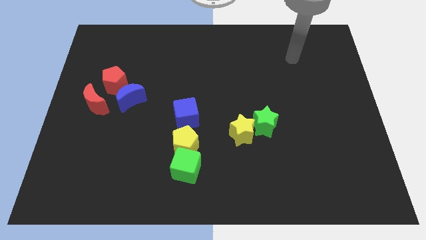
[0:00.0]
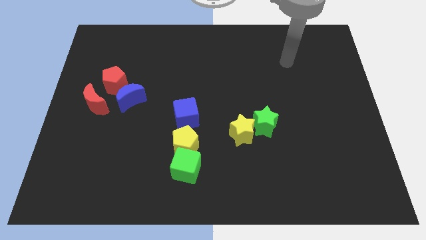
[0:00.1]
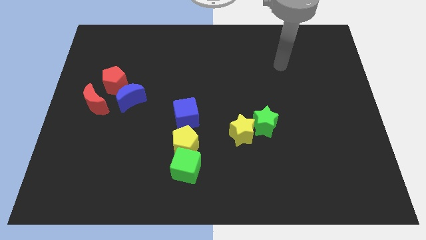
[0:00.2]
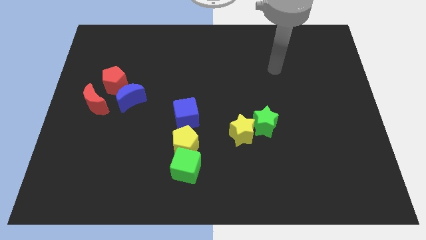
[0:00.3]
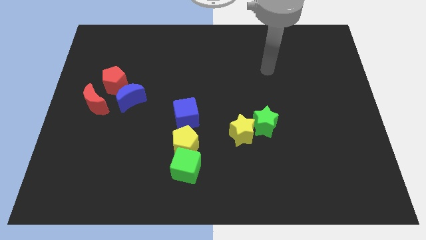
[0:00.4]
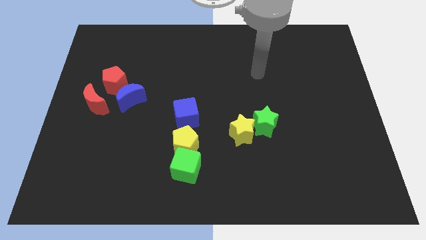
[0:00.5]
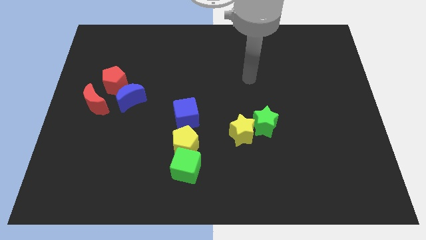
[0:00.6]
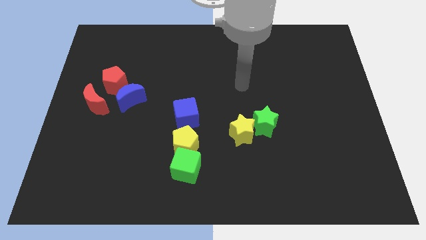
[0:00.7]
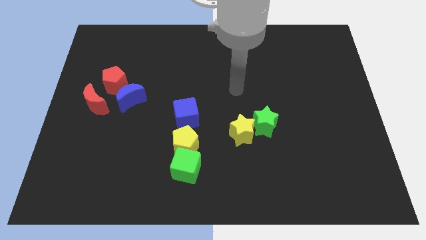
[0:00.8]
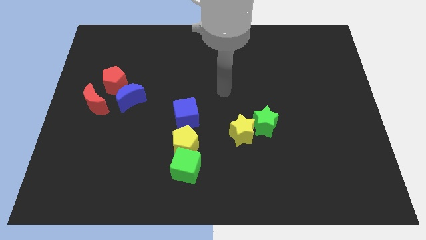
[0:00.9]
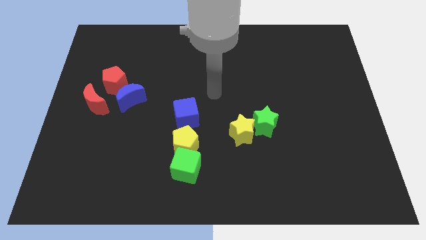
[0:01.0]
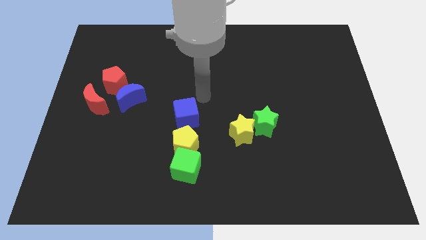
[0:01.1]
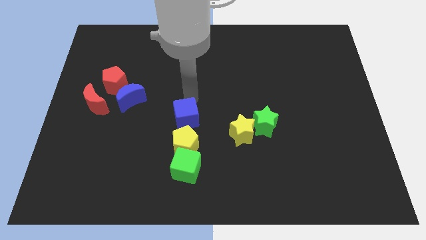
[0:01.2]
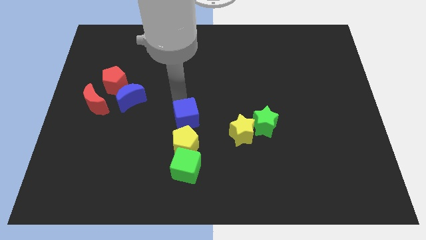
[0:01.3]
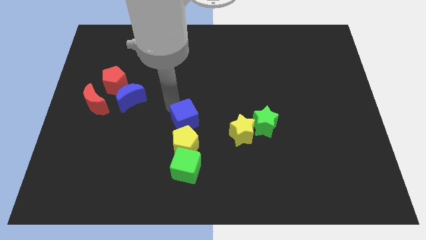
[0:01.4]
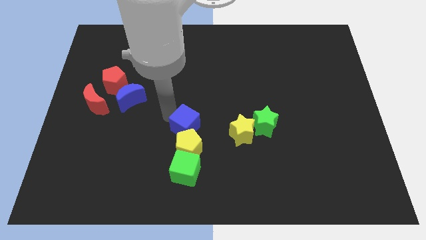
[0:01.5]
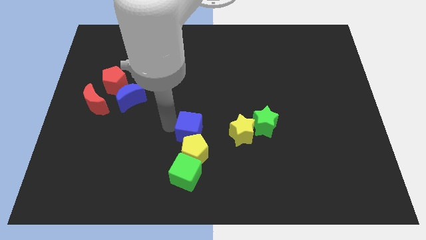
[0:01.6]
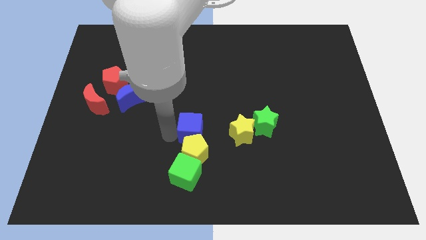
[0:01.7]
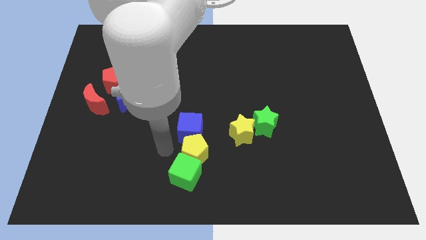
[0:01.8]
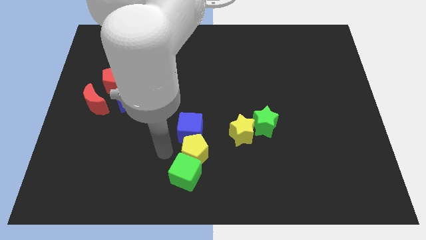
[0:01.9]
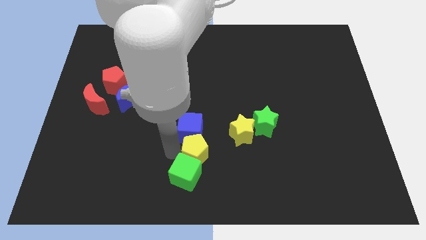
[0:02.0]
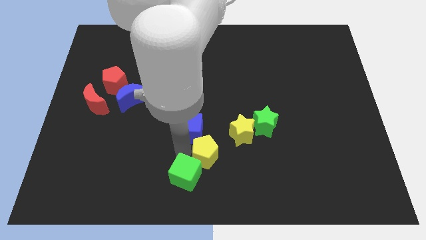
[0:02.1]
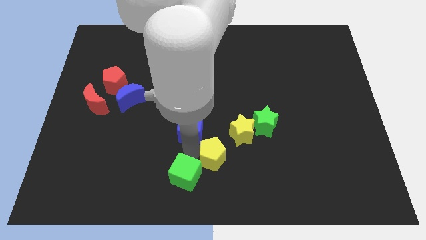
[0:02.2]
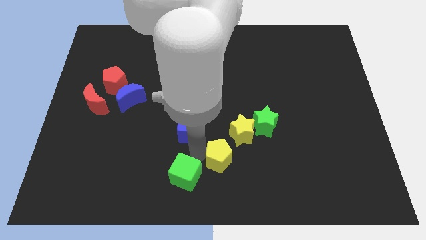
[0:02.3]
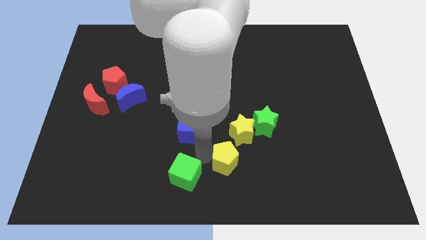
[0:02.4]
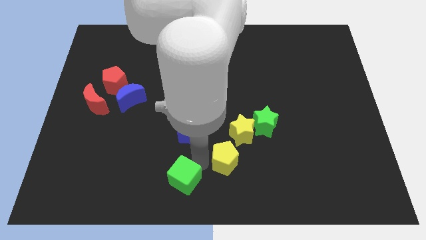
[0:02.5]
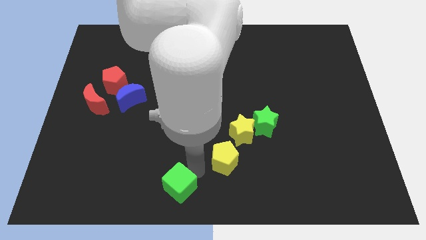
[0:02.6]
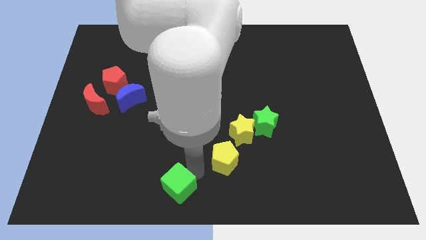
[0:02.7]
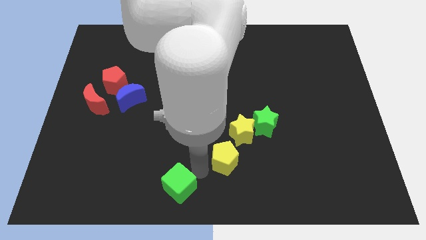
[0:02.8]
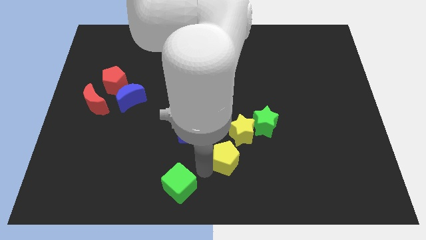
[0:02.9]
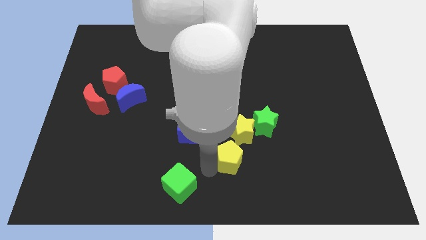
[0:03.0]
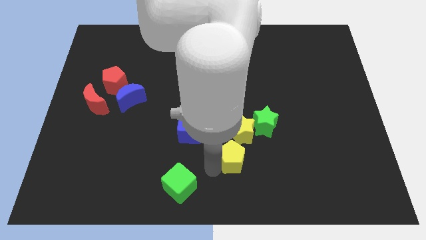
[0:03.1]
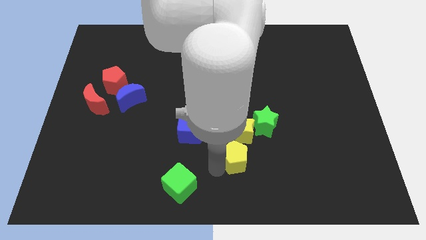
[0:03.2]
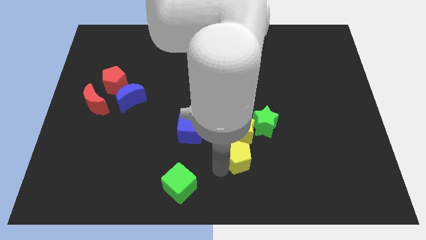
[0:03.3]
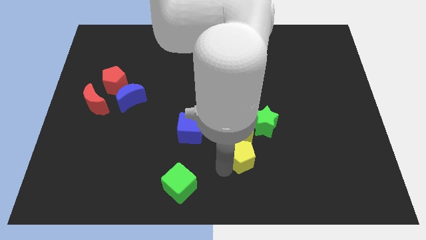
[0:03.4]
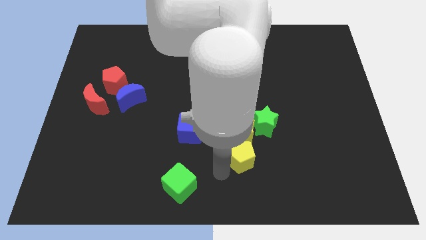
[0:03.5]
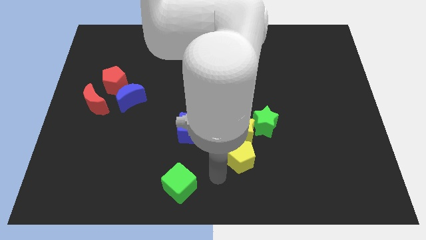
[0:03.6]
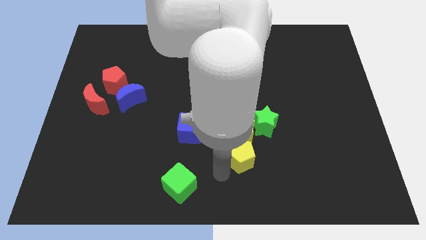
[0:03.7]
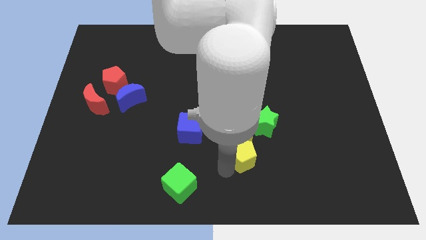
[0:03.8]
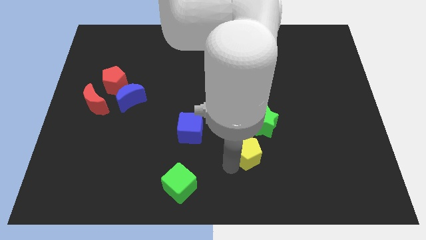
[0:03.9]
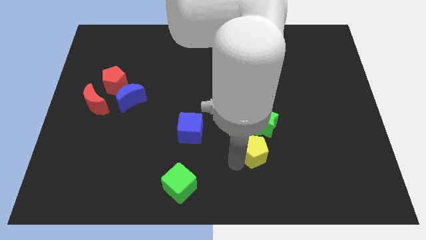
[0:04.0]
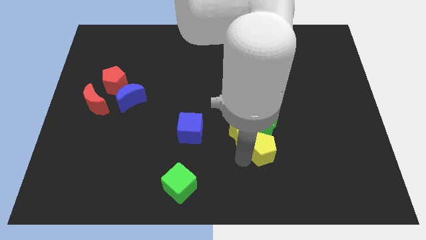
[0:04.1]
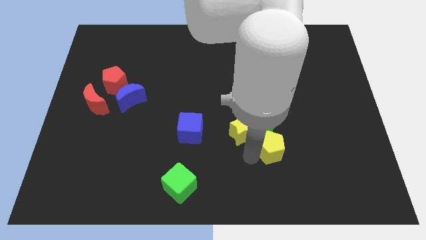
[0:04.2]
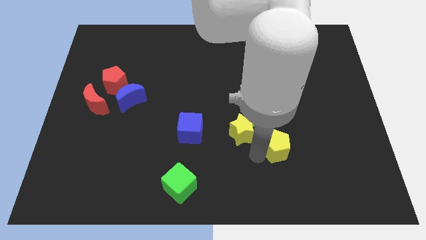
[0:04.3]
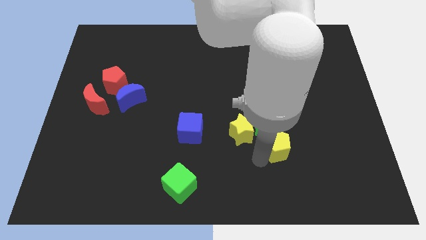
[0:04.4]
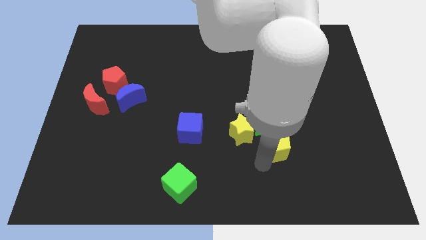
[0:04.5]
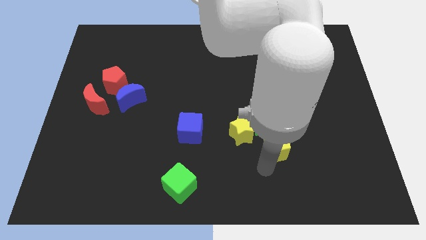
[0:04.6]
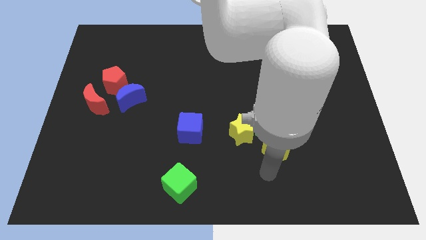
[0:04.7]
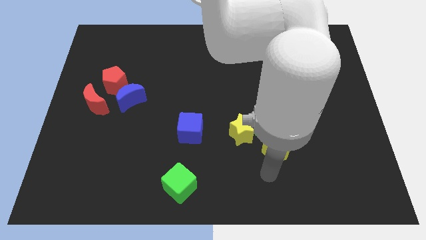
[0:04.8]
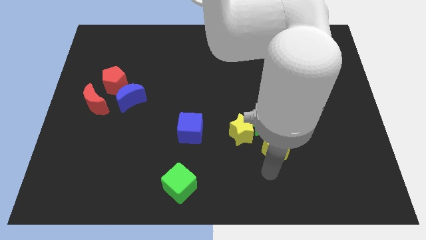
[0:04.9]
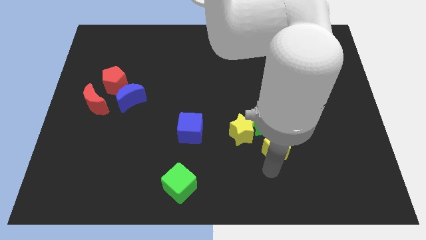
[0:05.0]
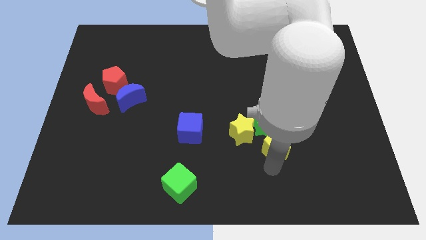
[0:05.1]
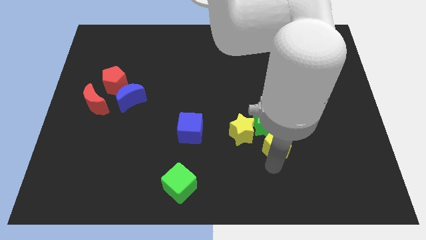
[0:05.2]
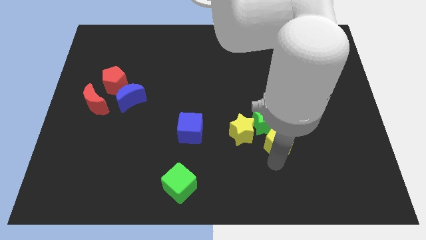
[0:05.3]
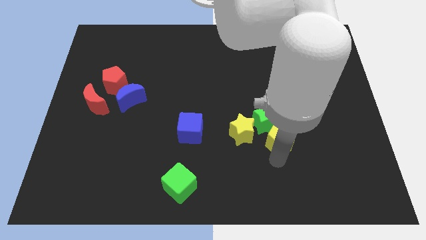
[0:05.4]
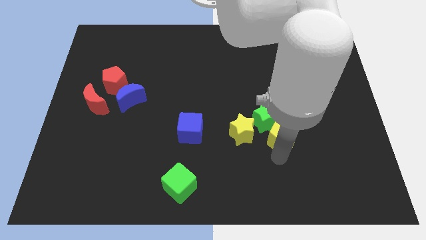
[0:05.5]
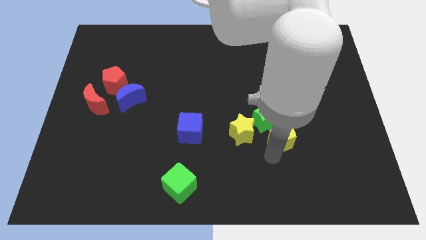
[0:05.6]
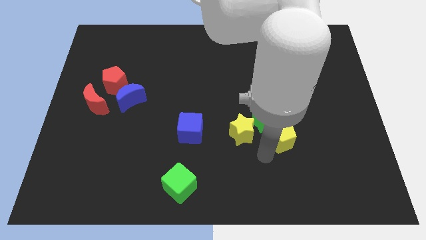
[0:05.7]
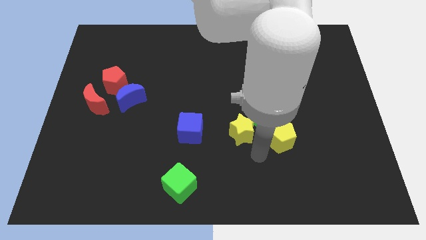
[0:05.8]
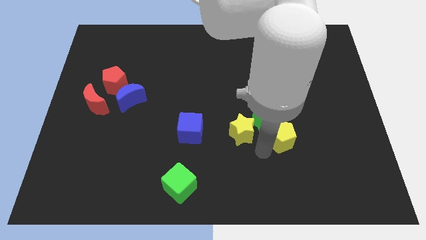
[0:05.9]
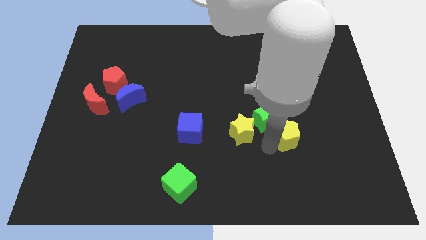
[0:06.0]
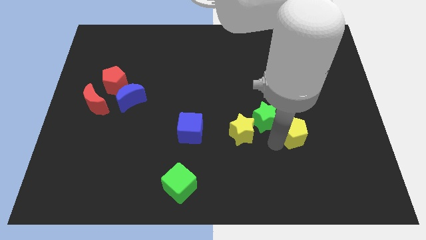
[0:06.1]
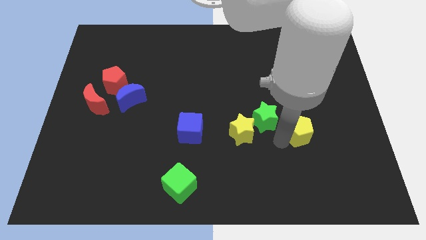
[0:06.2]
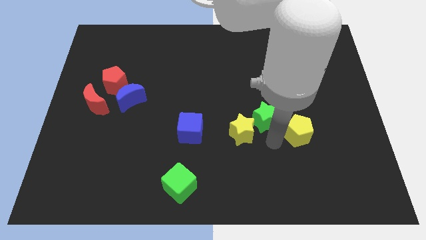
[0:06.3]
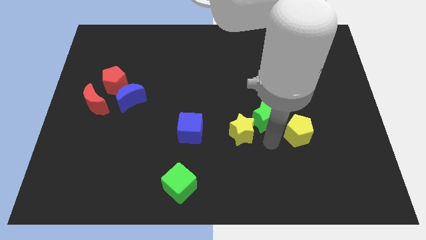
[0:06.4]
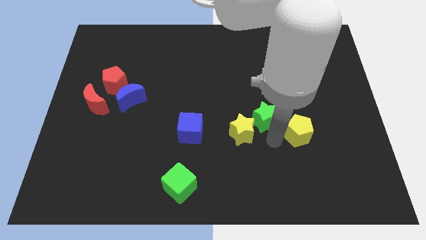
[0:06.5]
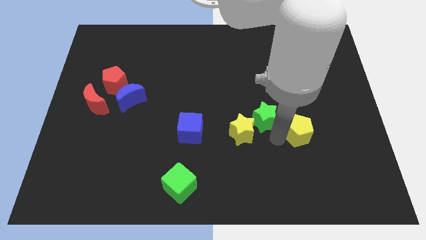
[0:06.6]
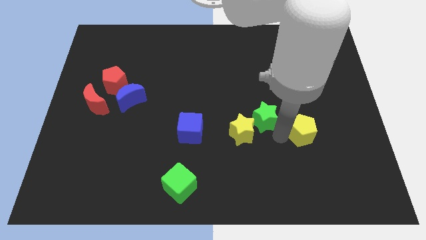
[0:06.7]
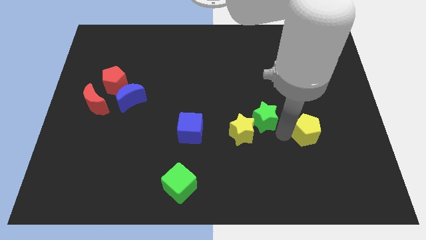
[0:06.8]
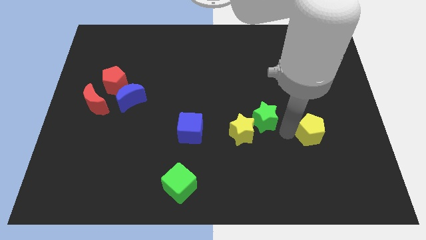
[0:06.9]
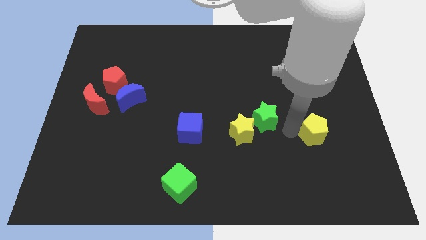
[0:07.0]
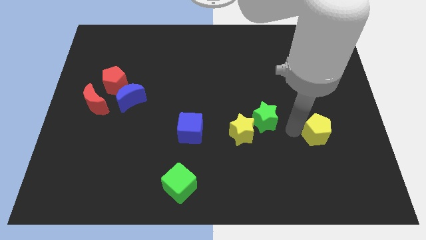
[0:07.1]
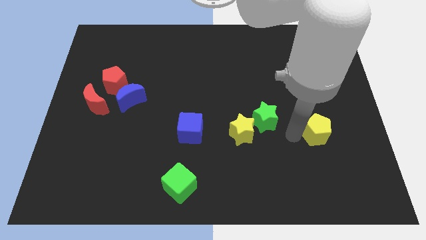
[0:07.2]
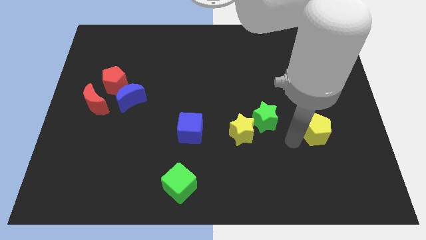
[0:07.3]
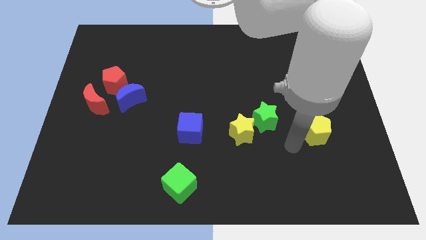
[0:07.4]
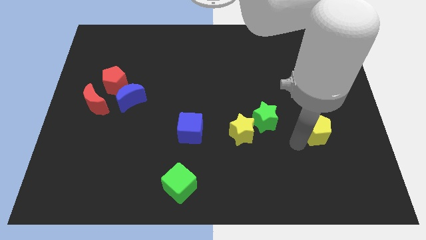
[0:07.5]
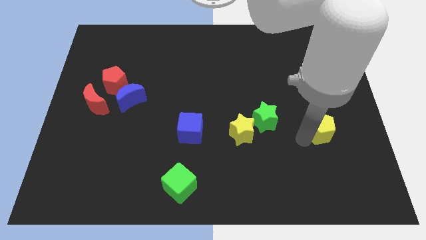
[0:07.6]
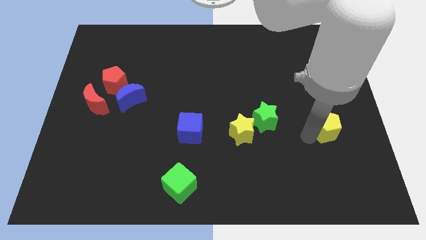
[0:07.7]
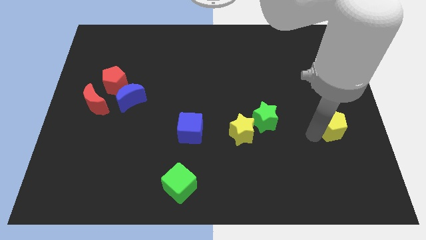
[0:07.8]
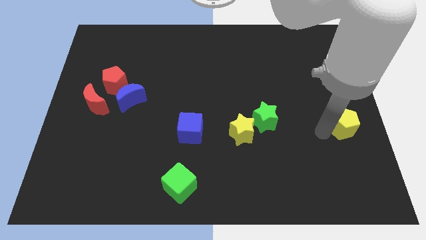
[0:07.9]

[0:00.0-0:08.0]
push the yellow pentagon to the right side of the board

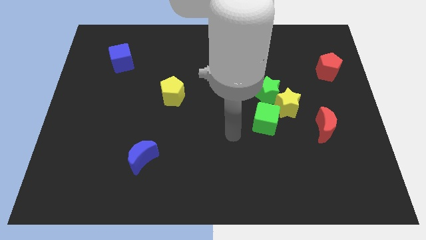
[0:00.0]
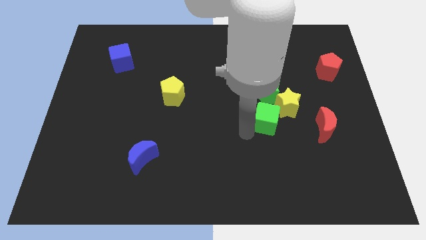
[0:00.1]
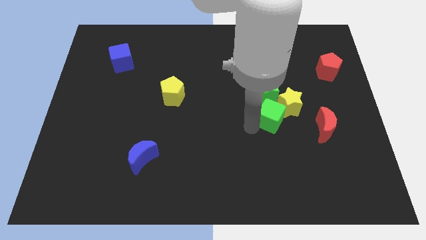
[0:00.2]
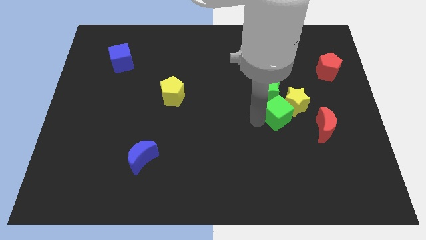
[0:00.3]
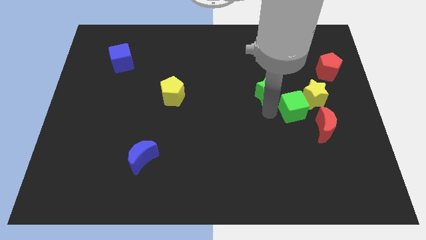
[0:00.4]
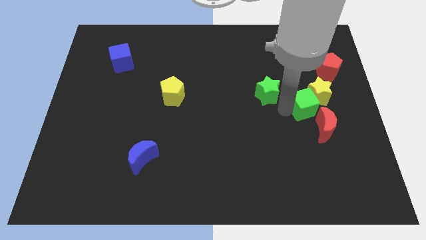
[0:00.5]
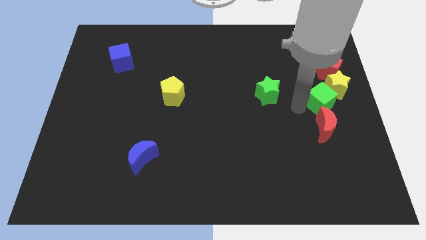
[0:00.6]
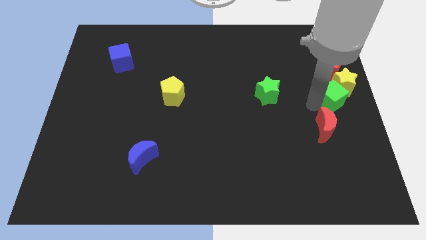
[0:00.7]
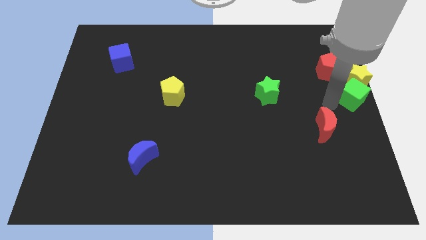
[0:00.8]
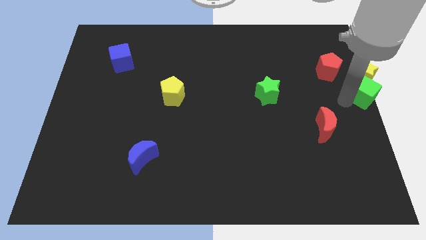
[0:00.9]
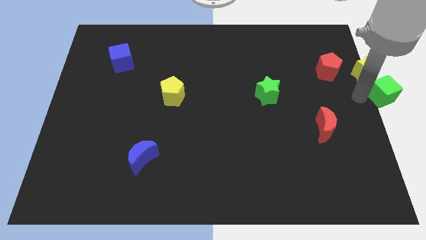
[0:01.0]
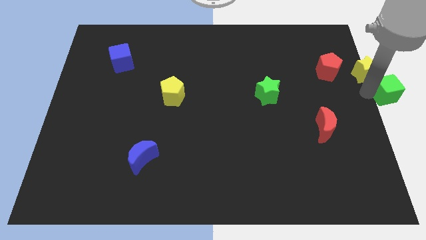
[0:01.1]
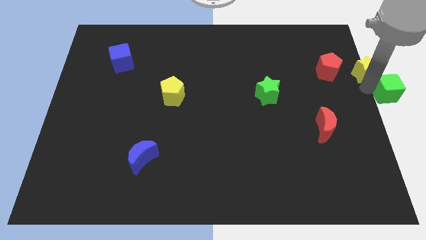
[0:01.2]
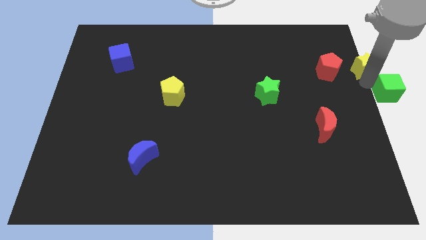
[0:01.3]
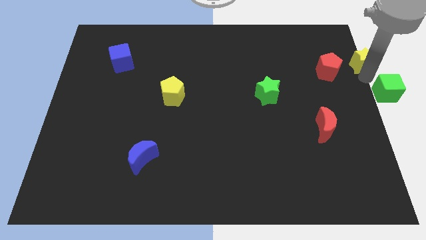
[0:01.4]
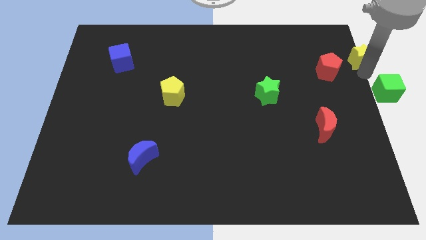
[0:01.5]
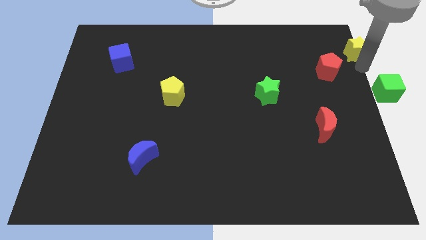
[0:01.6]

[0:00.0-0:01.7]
push the yellow star to the upper right corner
